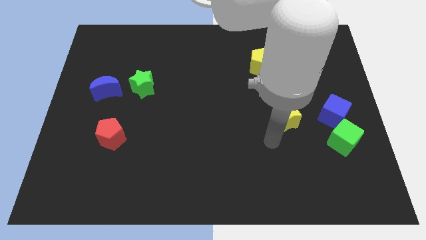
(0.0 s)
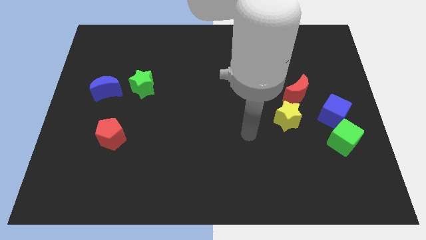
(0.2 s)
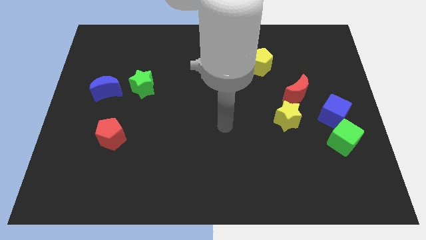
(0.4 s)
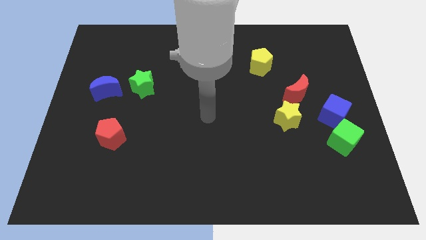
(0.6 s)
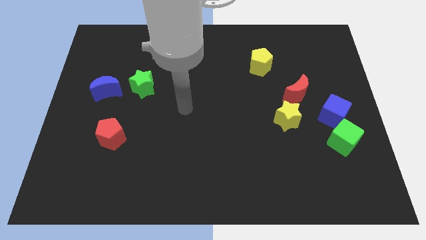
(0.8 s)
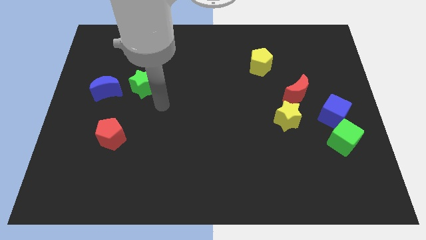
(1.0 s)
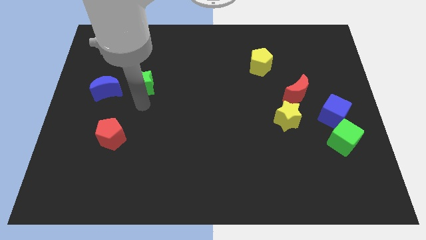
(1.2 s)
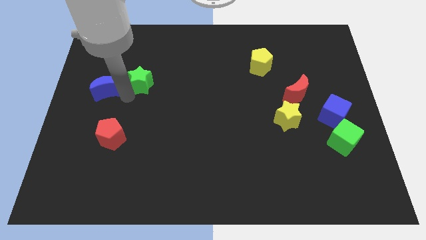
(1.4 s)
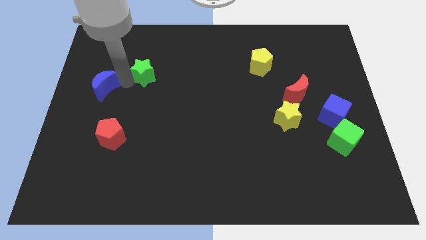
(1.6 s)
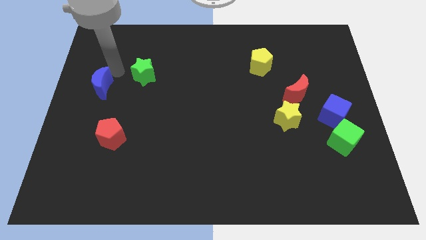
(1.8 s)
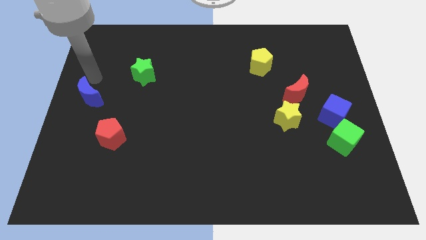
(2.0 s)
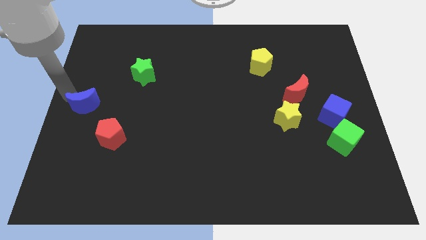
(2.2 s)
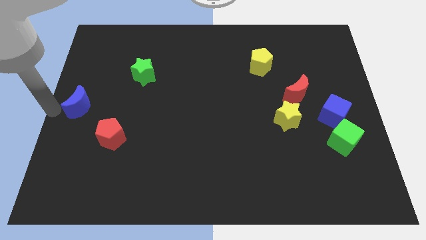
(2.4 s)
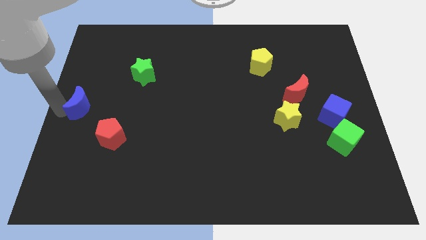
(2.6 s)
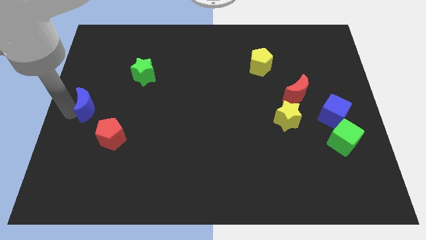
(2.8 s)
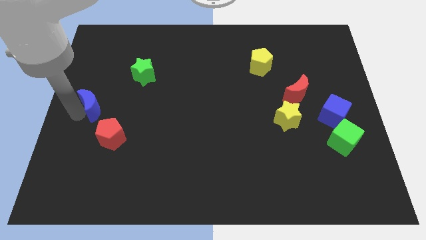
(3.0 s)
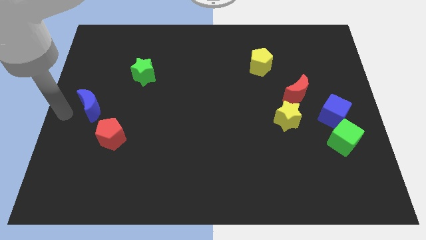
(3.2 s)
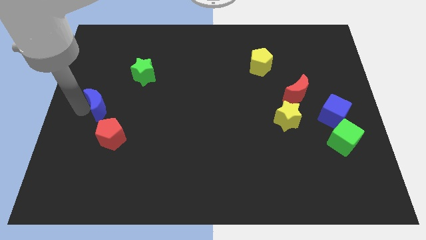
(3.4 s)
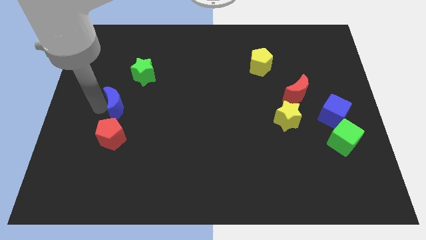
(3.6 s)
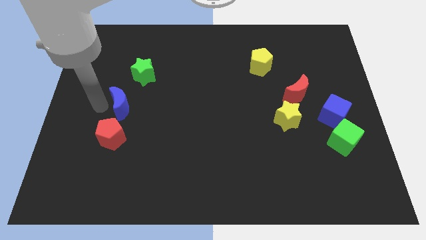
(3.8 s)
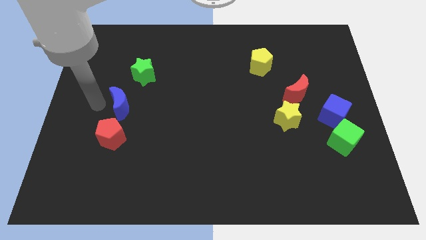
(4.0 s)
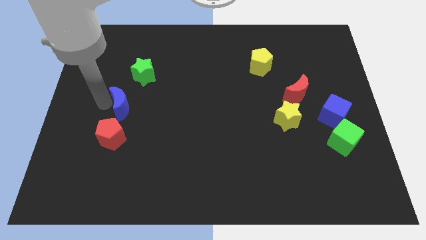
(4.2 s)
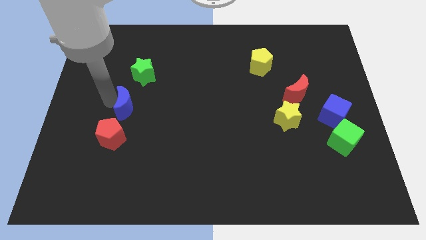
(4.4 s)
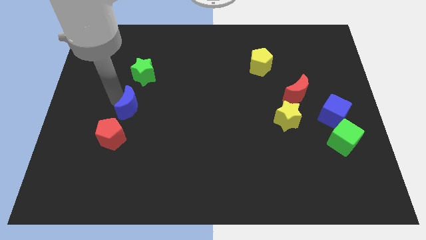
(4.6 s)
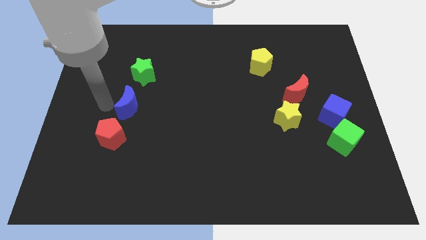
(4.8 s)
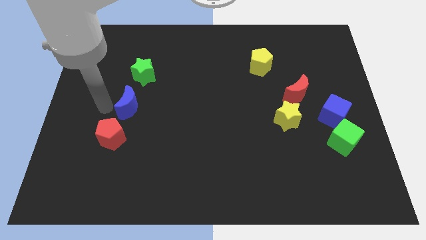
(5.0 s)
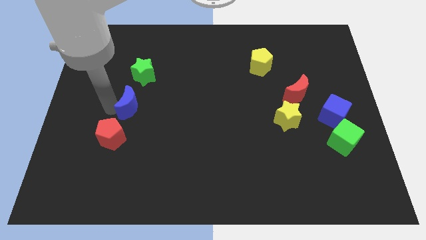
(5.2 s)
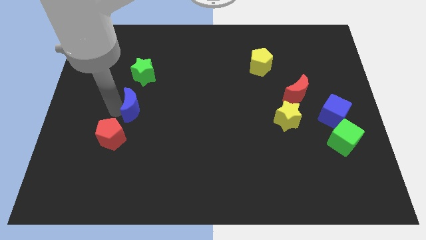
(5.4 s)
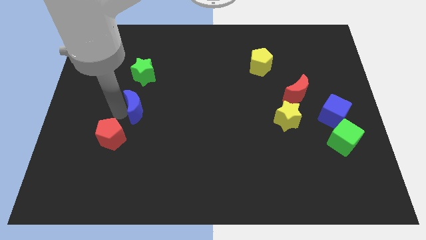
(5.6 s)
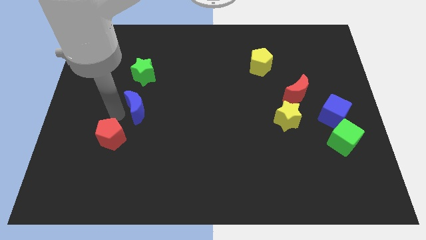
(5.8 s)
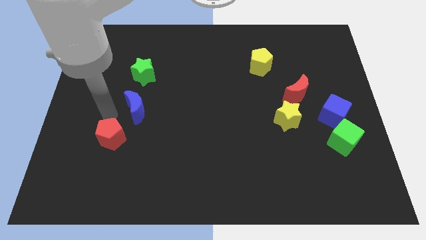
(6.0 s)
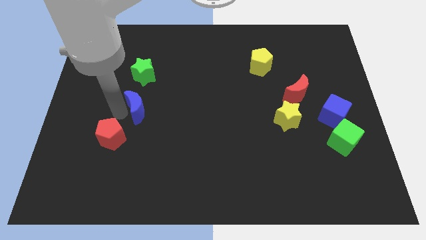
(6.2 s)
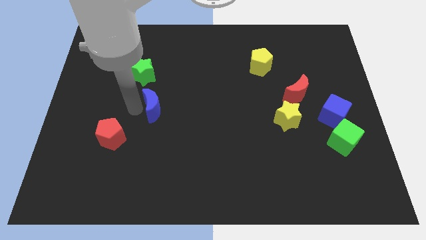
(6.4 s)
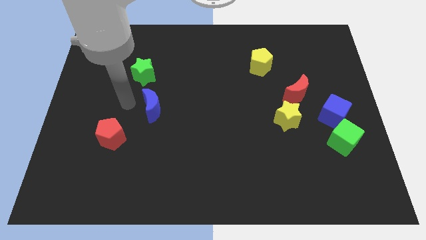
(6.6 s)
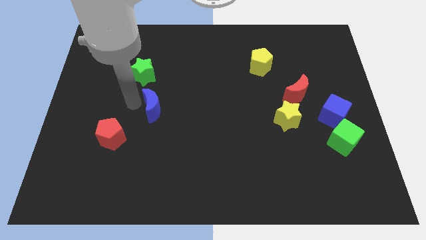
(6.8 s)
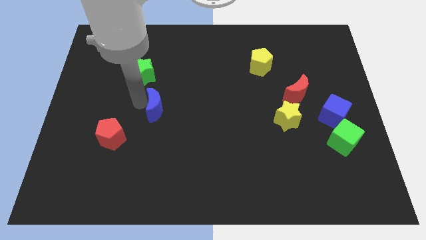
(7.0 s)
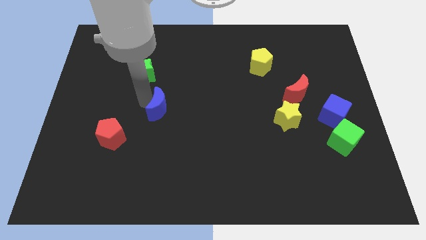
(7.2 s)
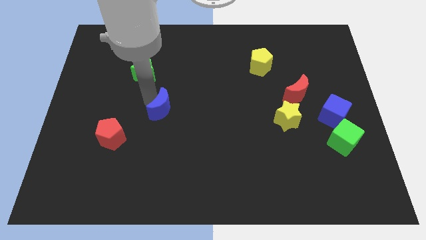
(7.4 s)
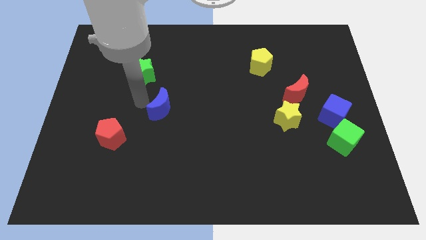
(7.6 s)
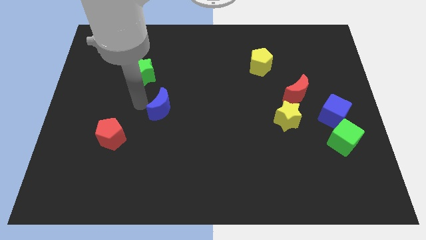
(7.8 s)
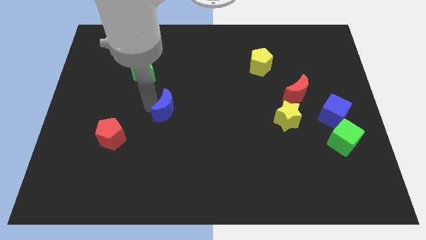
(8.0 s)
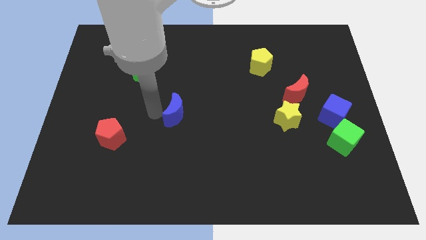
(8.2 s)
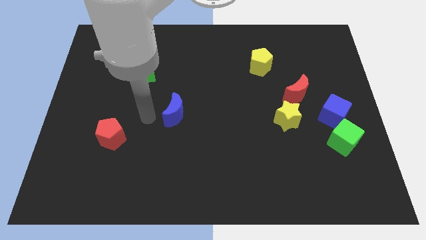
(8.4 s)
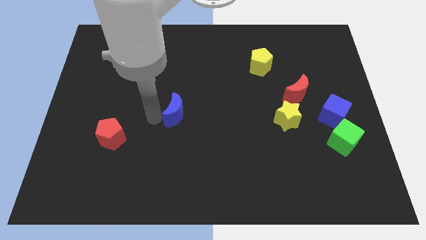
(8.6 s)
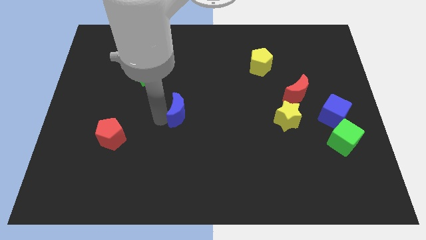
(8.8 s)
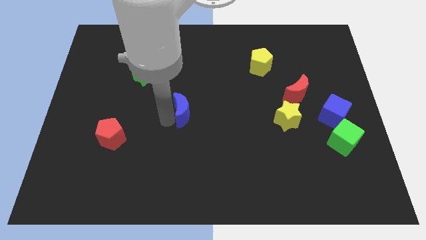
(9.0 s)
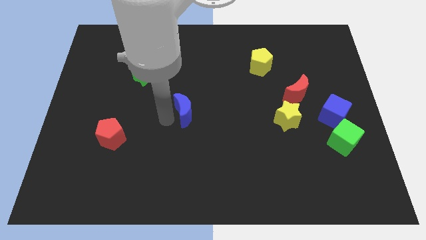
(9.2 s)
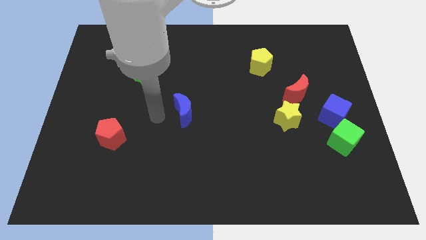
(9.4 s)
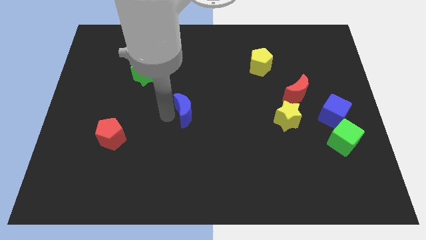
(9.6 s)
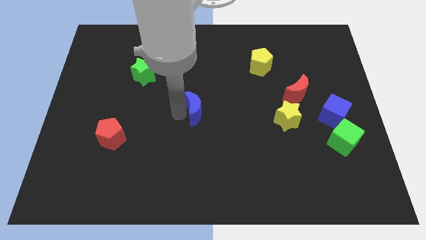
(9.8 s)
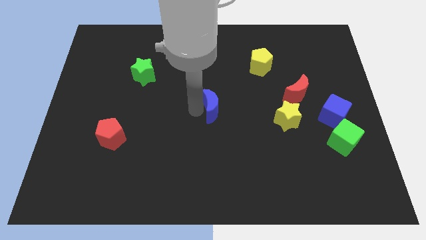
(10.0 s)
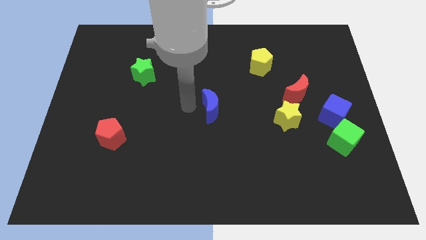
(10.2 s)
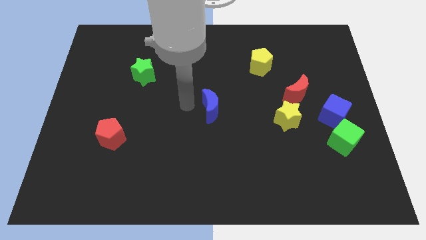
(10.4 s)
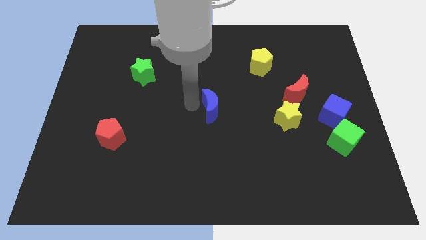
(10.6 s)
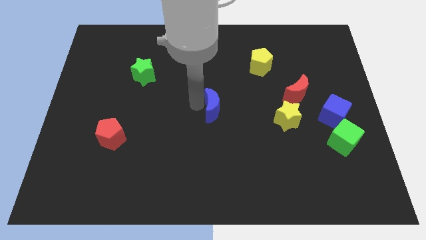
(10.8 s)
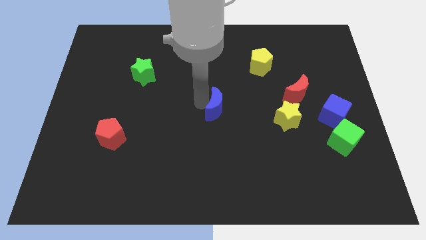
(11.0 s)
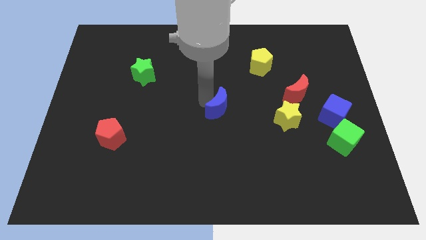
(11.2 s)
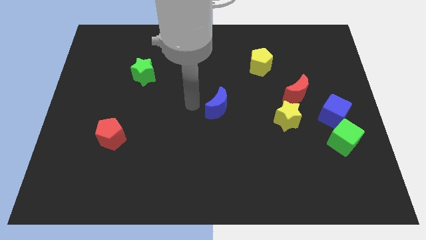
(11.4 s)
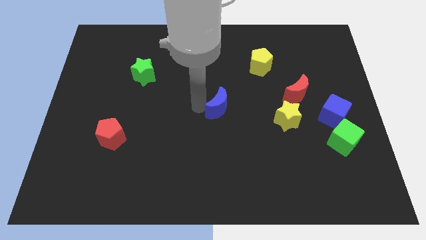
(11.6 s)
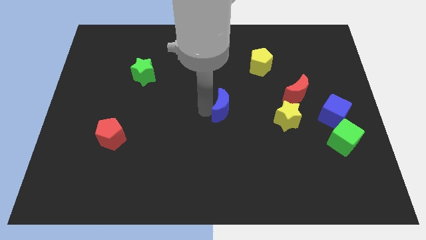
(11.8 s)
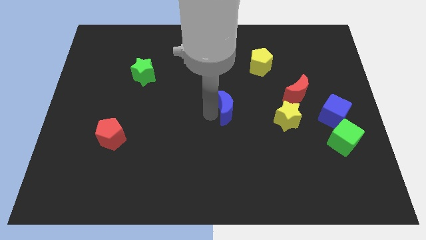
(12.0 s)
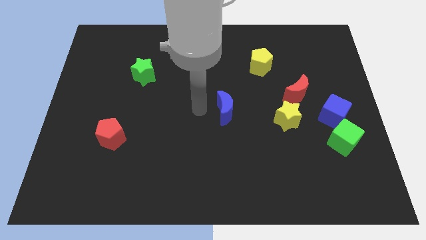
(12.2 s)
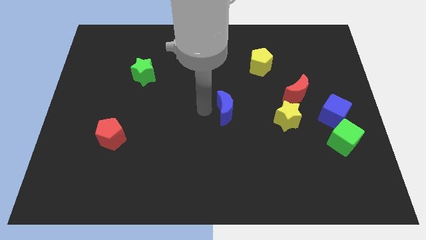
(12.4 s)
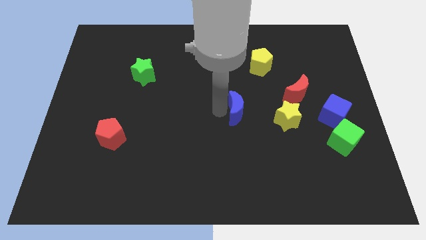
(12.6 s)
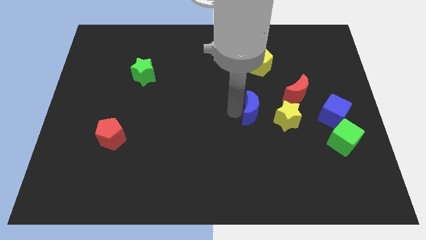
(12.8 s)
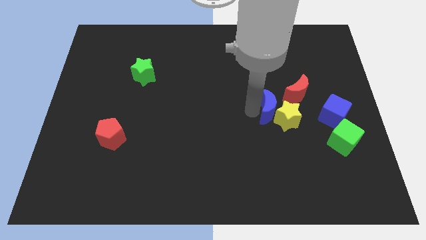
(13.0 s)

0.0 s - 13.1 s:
push the blue moon just left of the blue cube

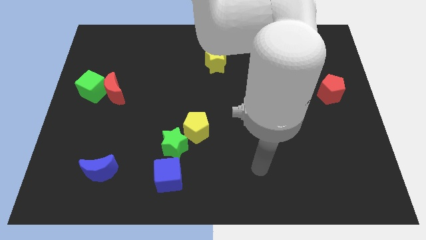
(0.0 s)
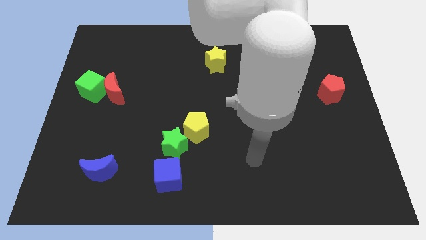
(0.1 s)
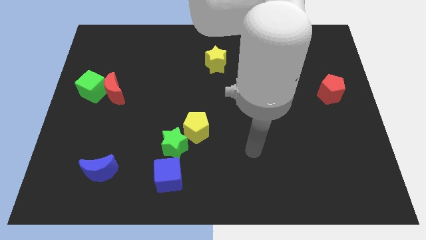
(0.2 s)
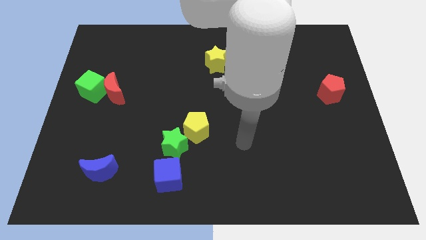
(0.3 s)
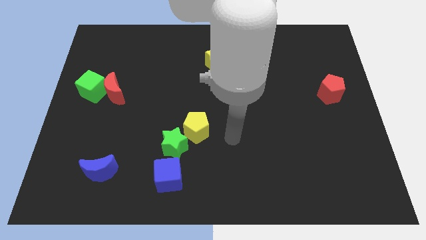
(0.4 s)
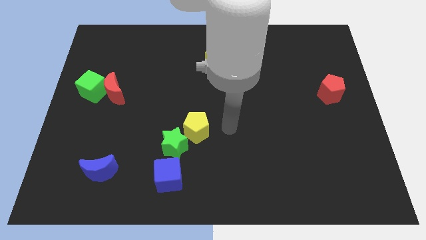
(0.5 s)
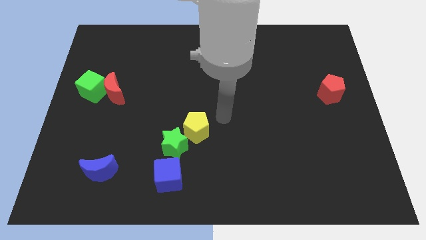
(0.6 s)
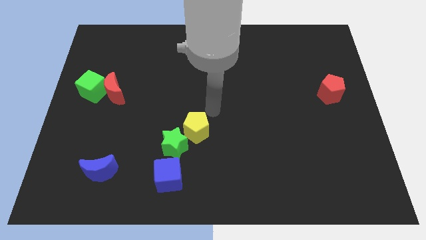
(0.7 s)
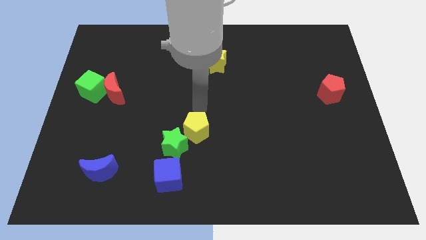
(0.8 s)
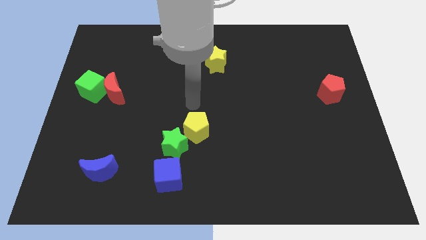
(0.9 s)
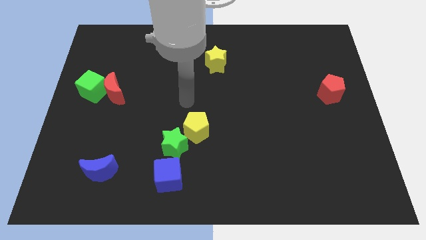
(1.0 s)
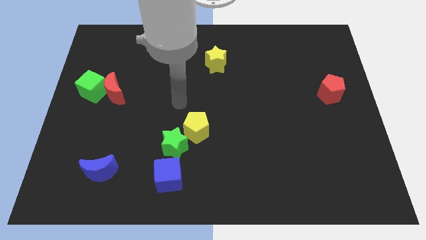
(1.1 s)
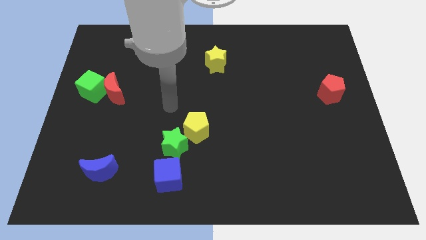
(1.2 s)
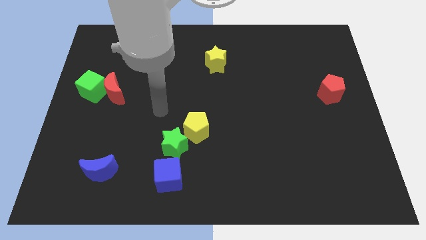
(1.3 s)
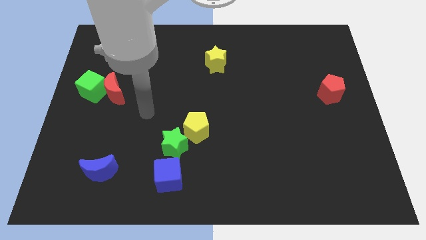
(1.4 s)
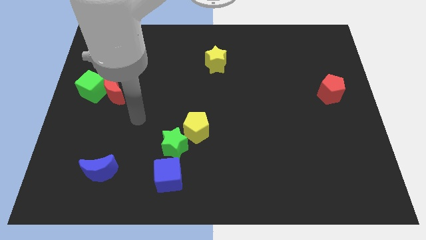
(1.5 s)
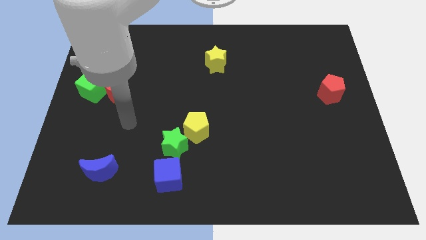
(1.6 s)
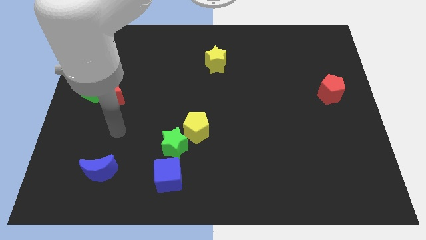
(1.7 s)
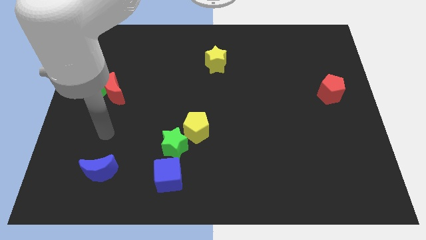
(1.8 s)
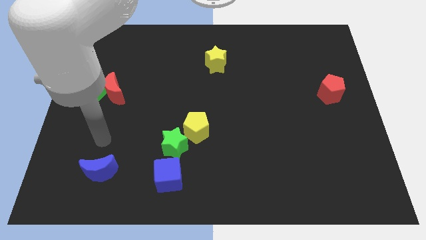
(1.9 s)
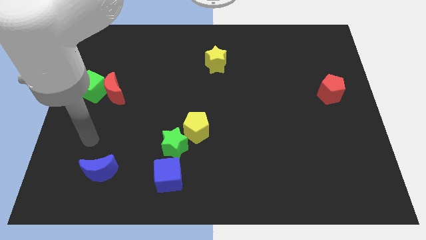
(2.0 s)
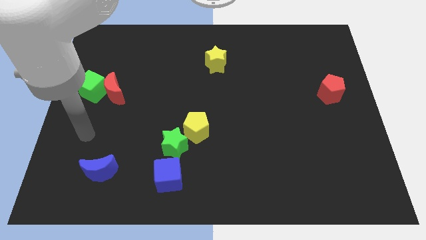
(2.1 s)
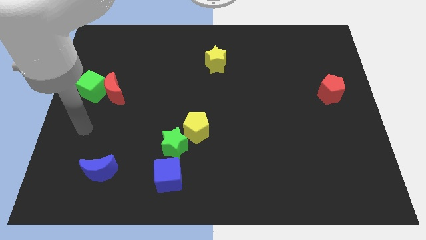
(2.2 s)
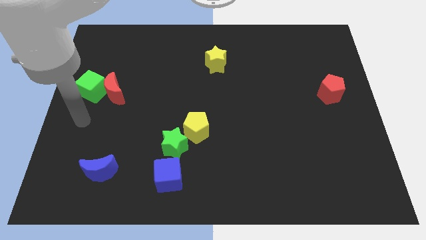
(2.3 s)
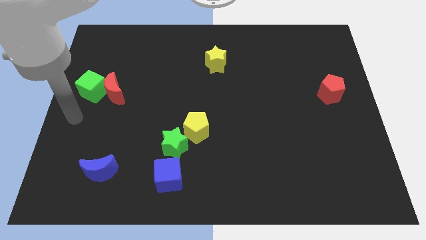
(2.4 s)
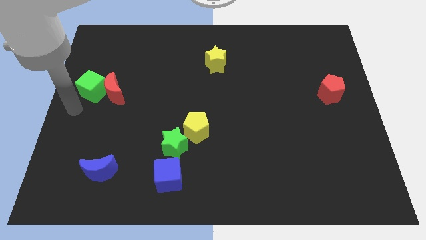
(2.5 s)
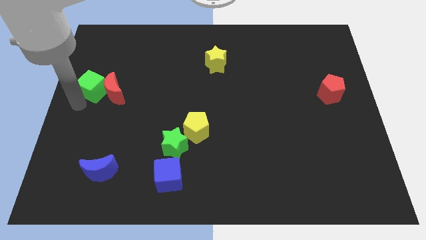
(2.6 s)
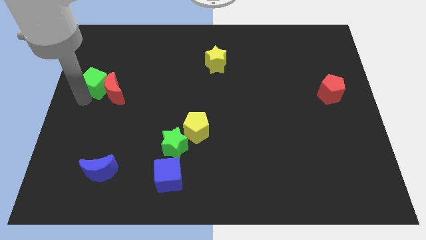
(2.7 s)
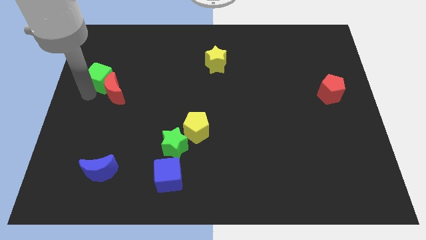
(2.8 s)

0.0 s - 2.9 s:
push the green cube above the red moon
